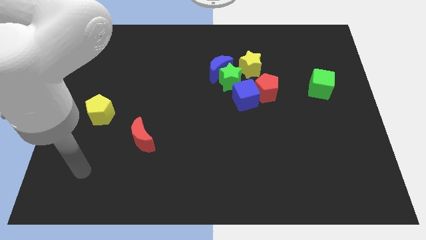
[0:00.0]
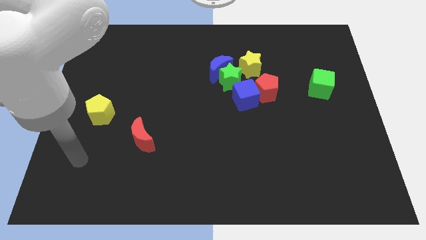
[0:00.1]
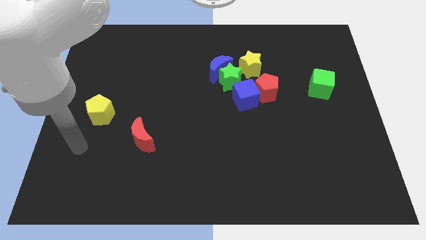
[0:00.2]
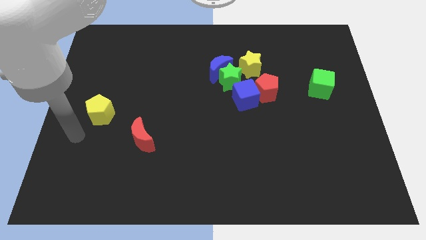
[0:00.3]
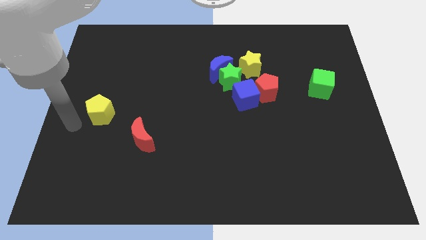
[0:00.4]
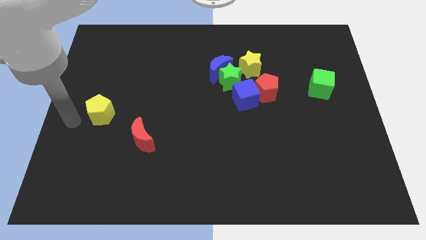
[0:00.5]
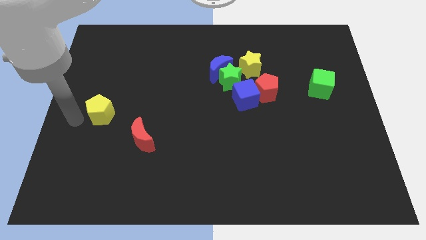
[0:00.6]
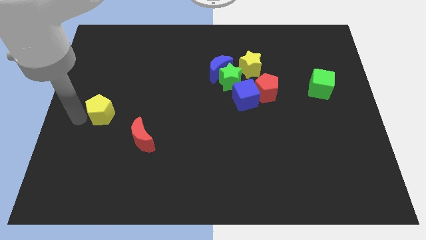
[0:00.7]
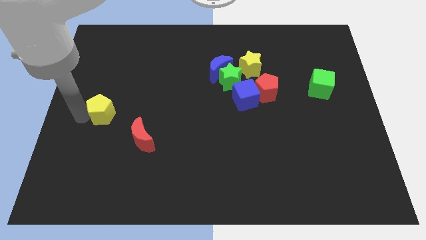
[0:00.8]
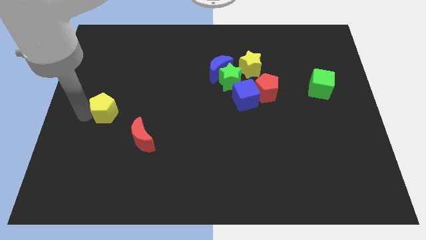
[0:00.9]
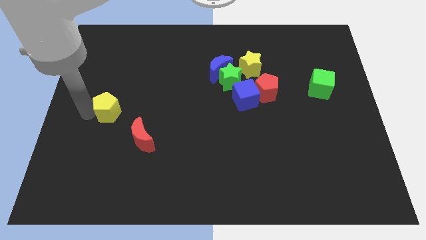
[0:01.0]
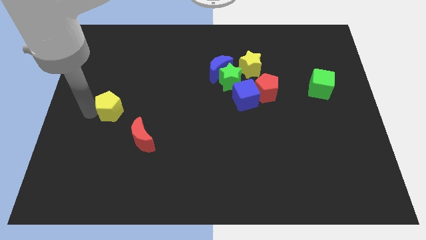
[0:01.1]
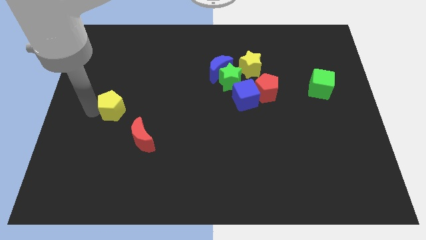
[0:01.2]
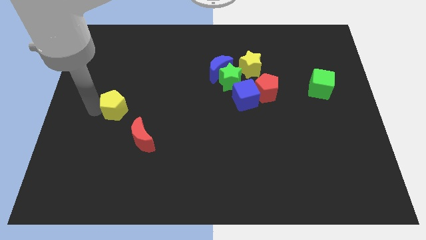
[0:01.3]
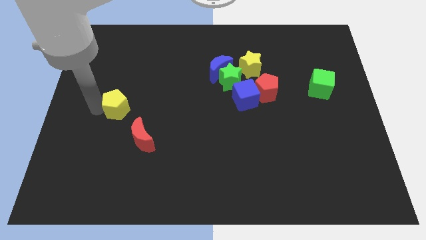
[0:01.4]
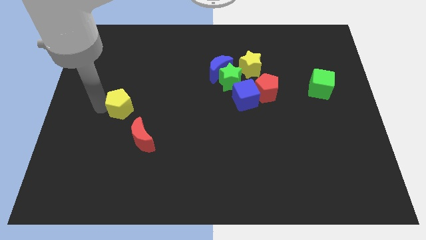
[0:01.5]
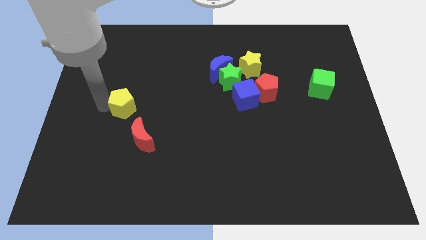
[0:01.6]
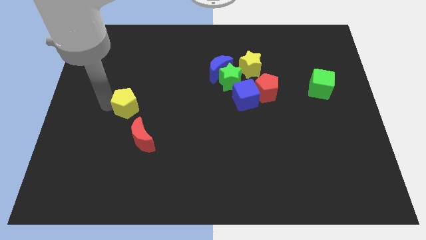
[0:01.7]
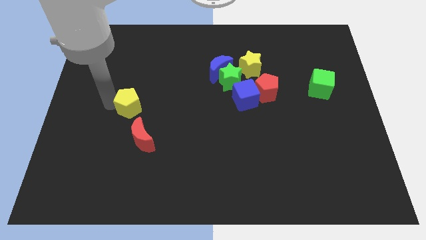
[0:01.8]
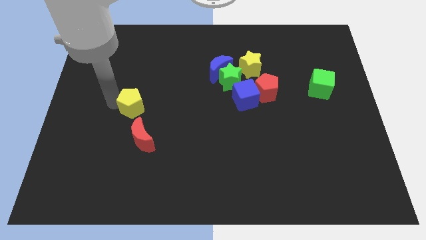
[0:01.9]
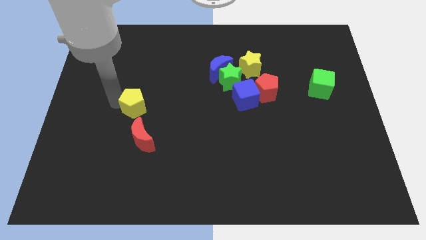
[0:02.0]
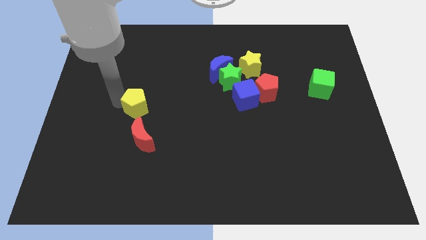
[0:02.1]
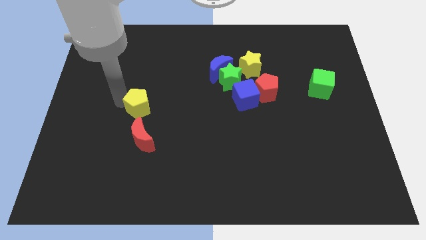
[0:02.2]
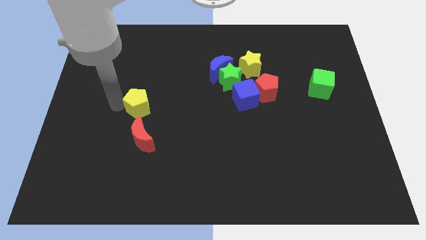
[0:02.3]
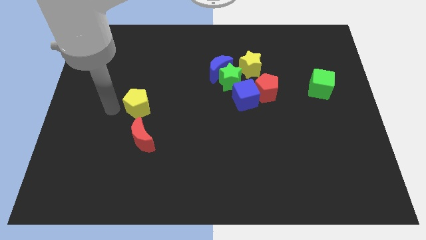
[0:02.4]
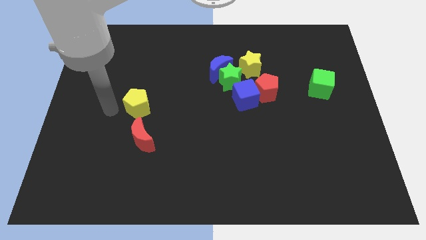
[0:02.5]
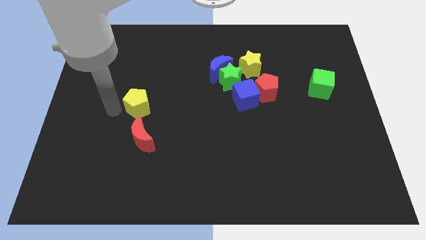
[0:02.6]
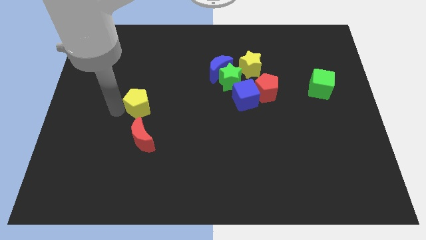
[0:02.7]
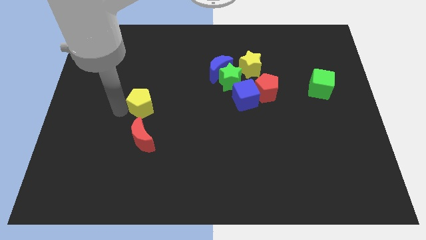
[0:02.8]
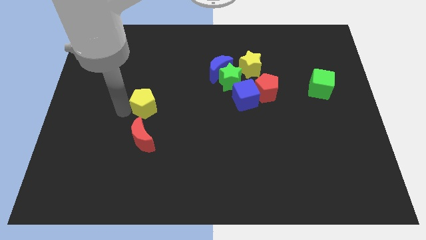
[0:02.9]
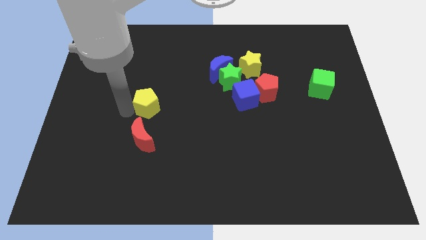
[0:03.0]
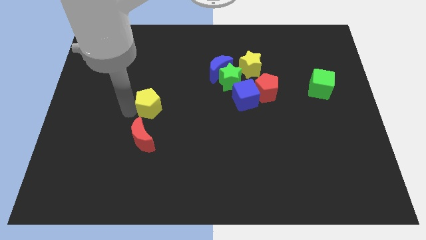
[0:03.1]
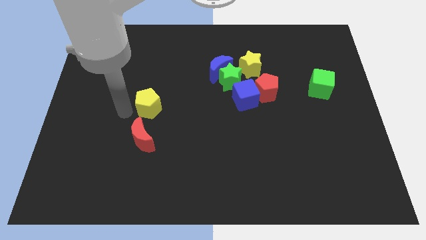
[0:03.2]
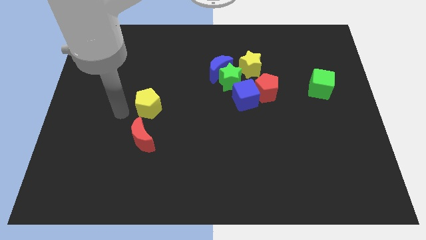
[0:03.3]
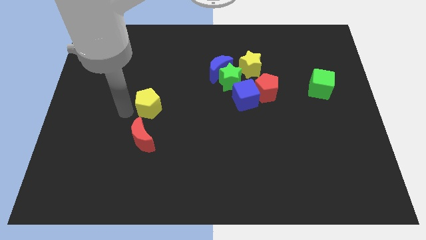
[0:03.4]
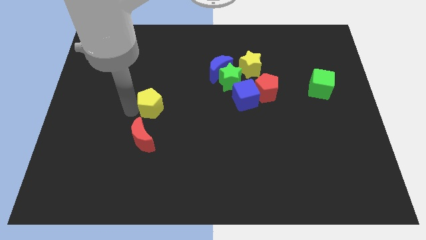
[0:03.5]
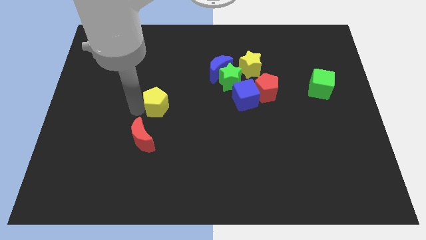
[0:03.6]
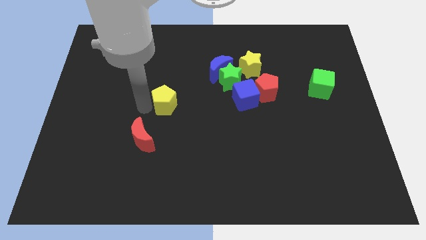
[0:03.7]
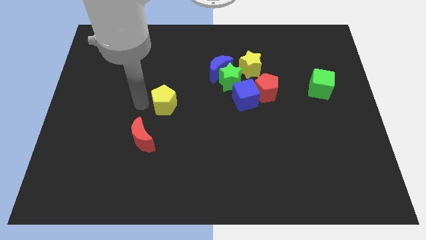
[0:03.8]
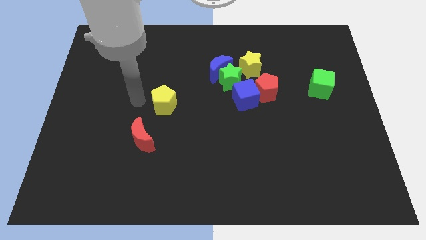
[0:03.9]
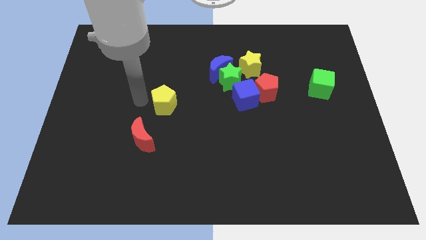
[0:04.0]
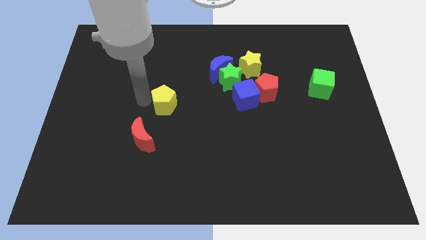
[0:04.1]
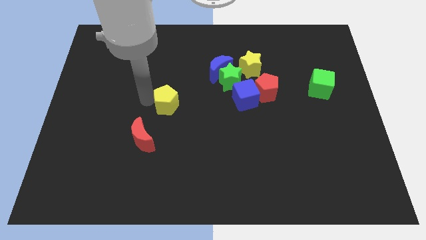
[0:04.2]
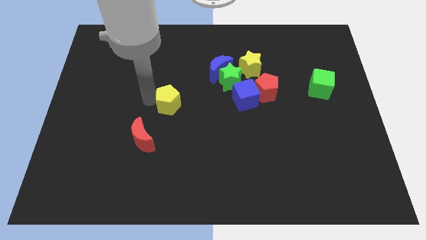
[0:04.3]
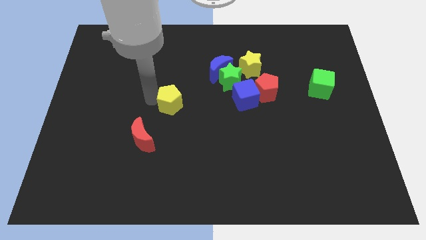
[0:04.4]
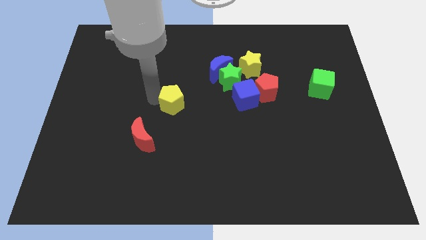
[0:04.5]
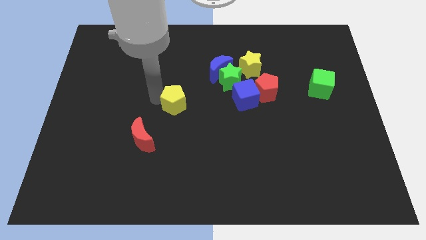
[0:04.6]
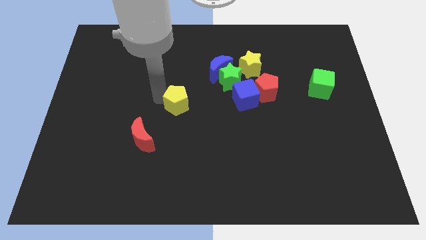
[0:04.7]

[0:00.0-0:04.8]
move the yellow pentagon left of the blue cube

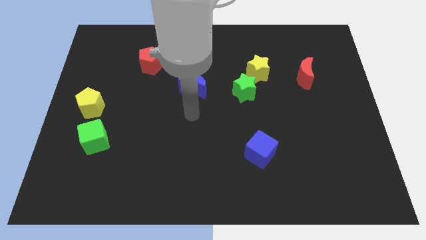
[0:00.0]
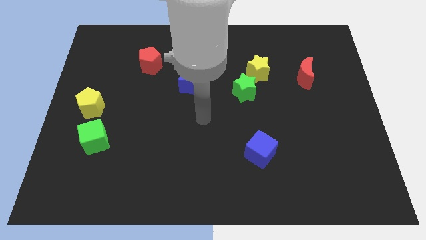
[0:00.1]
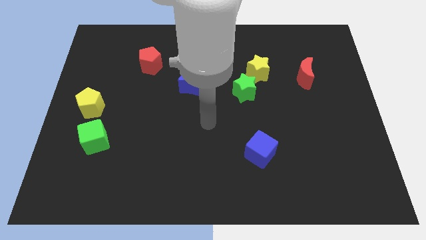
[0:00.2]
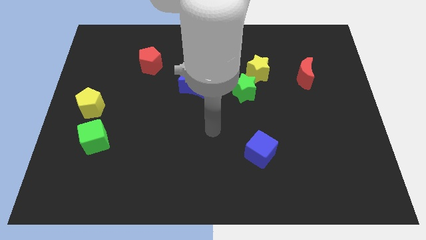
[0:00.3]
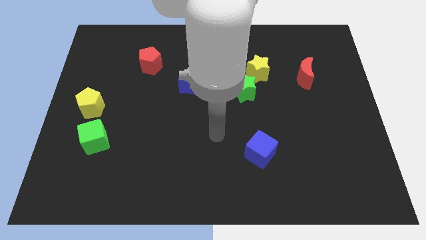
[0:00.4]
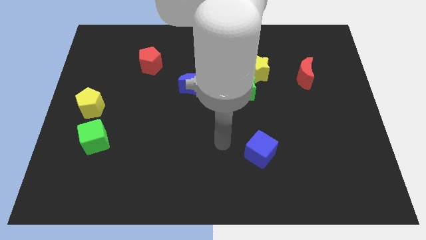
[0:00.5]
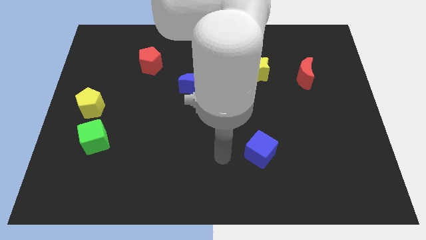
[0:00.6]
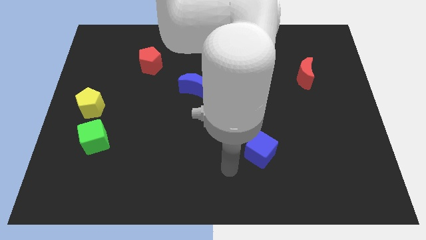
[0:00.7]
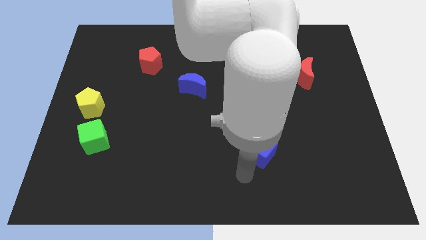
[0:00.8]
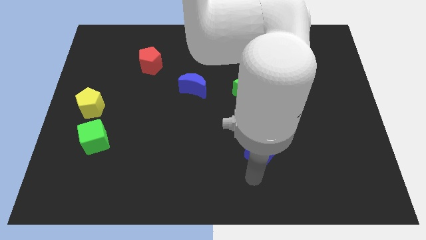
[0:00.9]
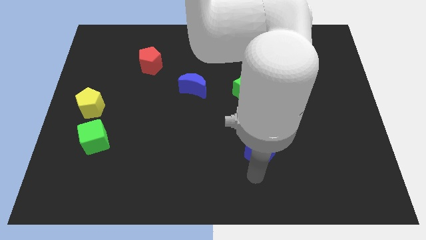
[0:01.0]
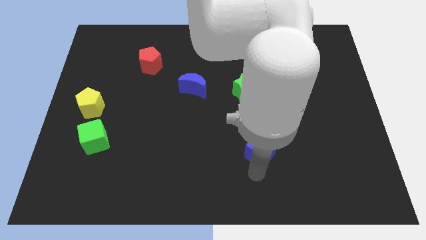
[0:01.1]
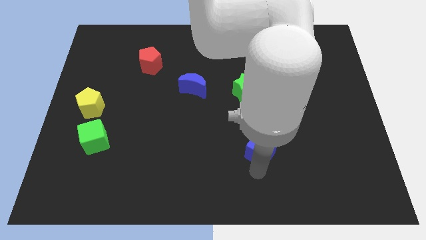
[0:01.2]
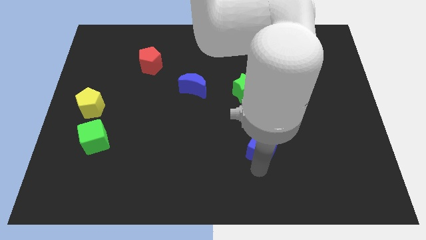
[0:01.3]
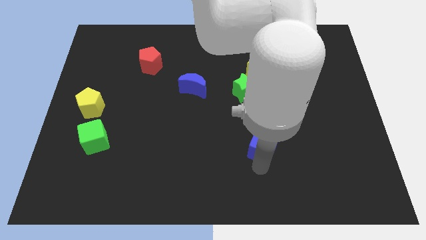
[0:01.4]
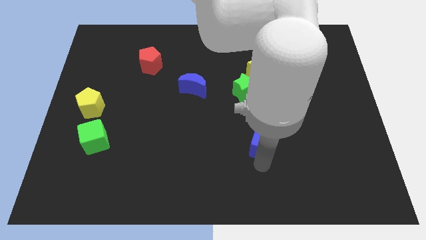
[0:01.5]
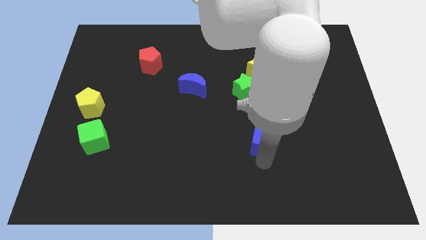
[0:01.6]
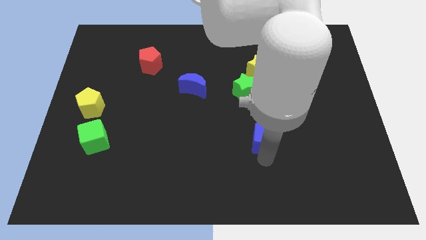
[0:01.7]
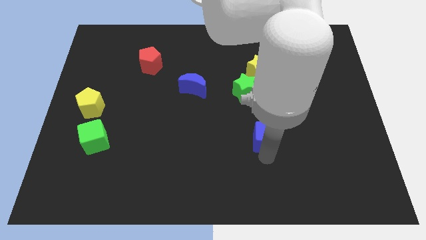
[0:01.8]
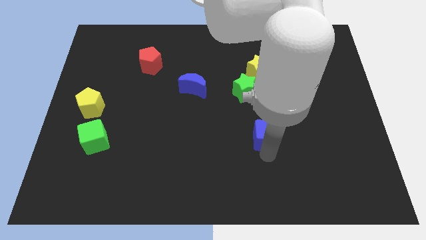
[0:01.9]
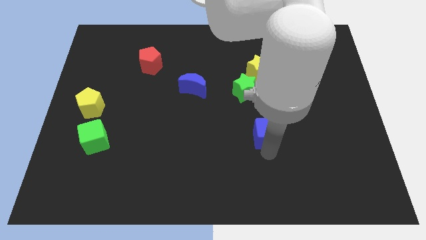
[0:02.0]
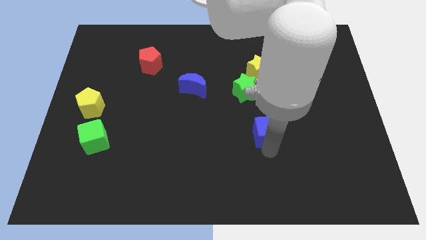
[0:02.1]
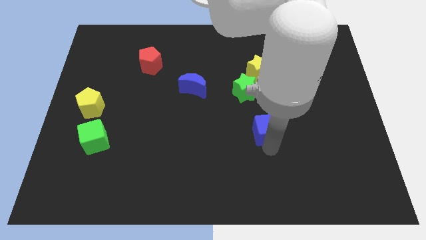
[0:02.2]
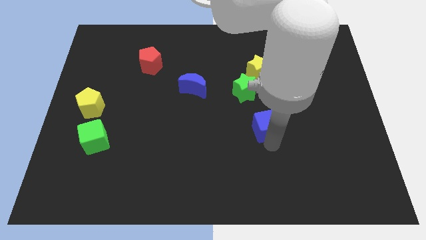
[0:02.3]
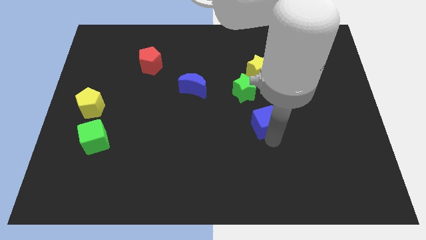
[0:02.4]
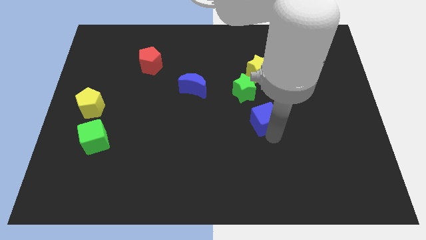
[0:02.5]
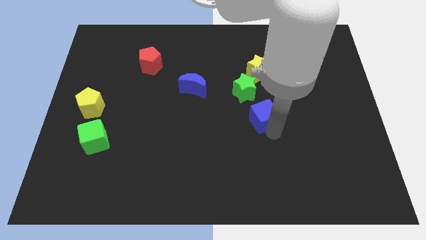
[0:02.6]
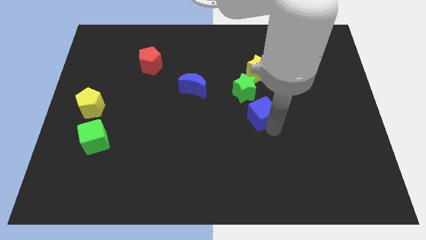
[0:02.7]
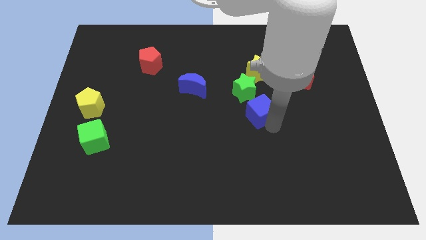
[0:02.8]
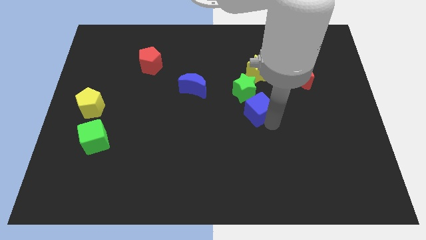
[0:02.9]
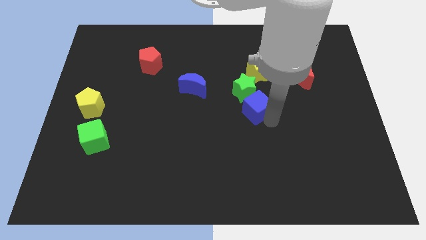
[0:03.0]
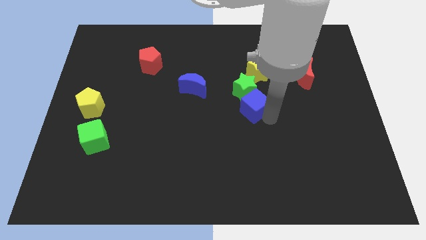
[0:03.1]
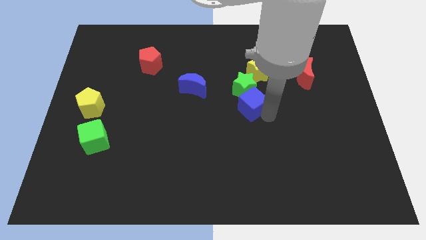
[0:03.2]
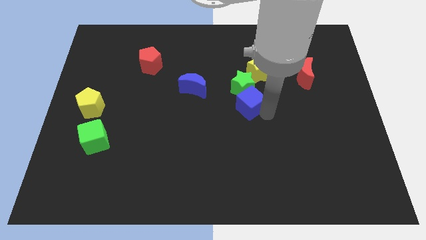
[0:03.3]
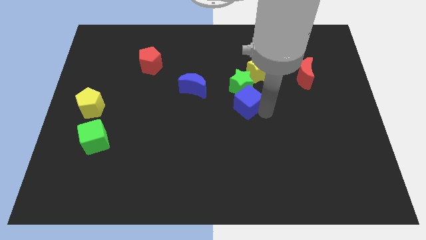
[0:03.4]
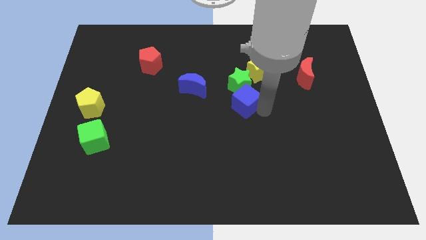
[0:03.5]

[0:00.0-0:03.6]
put the blue cube to the bottom left side of the yellow star
